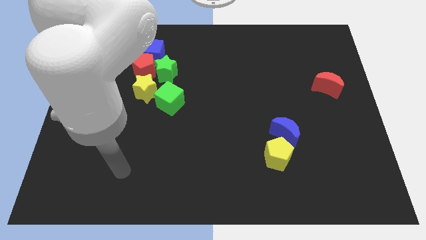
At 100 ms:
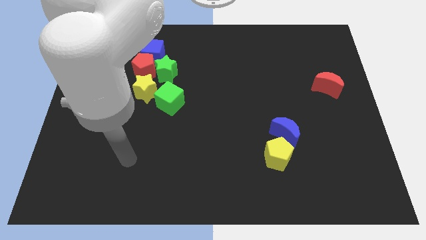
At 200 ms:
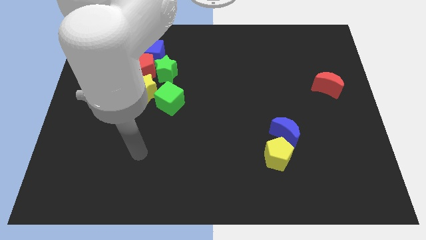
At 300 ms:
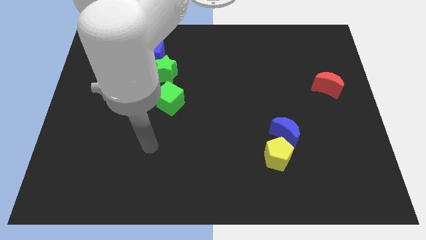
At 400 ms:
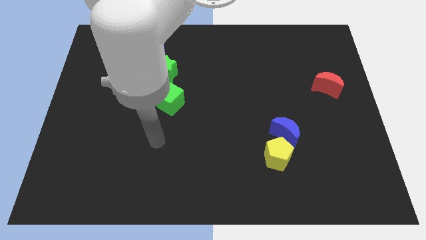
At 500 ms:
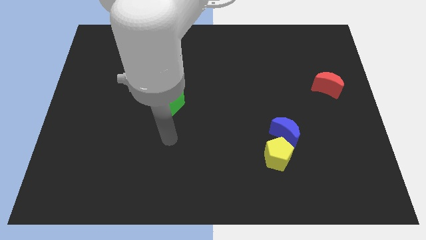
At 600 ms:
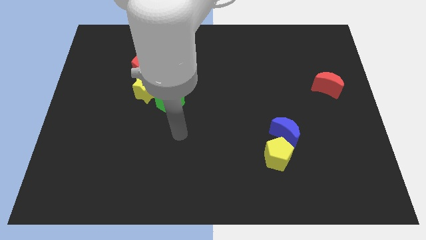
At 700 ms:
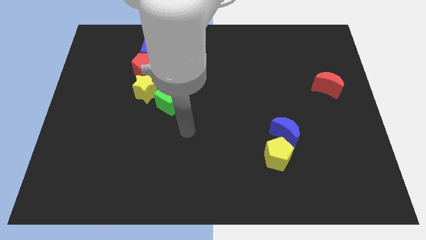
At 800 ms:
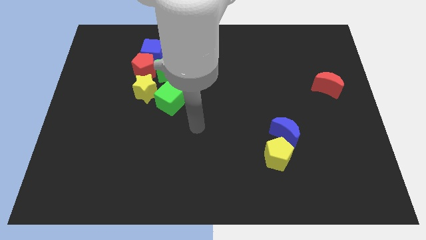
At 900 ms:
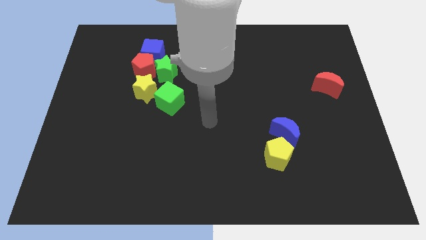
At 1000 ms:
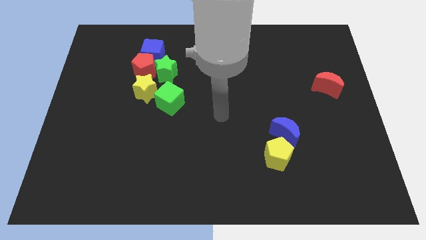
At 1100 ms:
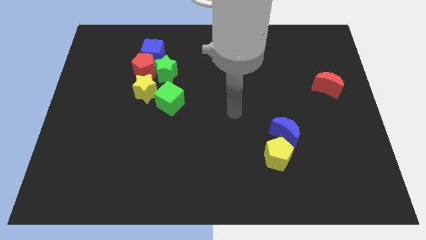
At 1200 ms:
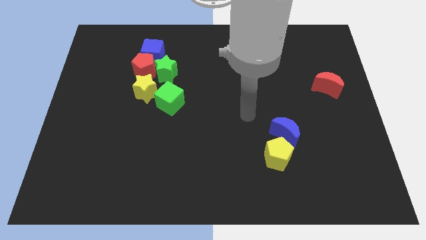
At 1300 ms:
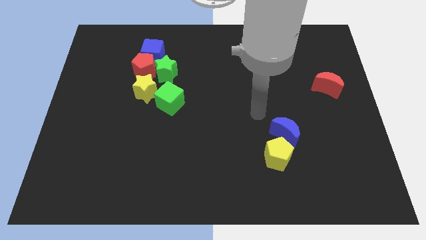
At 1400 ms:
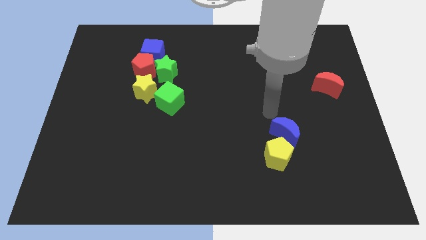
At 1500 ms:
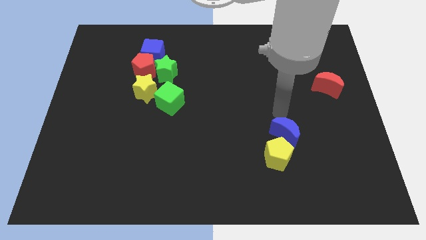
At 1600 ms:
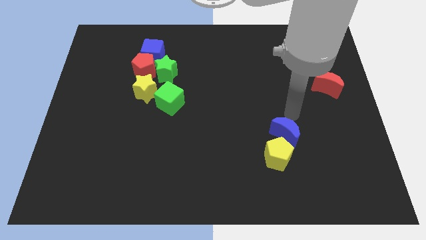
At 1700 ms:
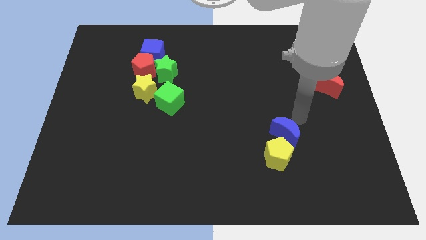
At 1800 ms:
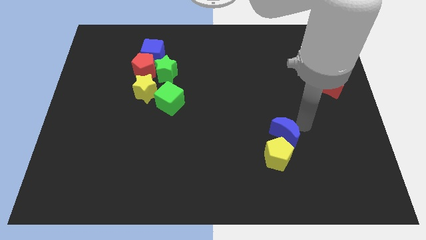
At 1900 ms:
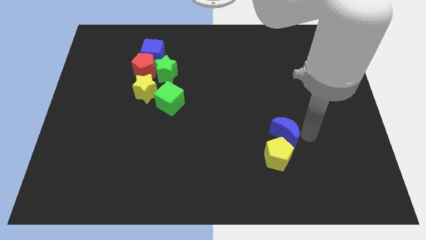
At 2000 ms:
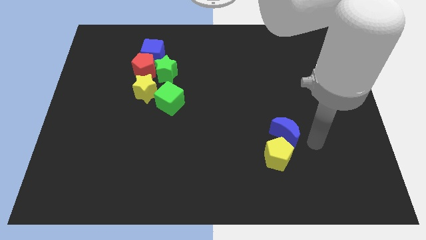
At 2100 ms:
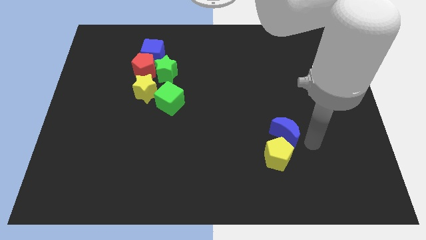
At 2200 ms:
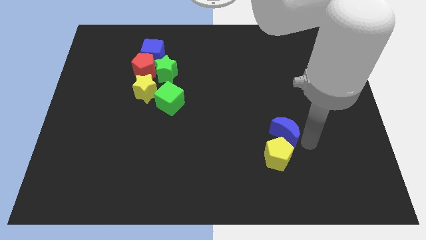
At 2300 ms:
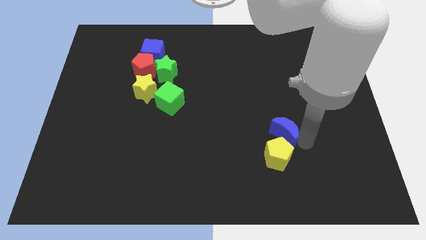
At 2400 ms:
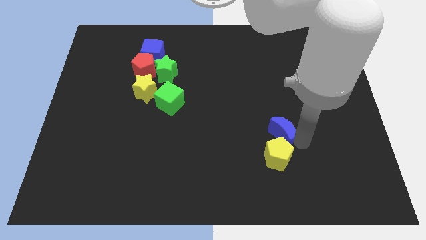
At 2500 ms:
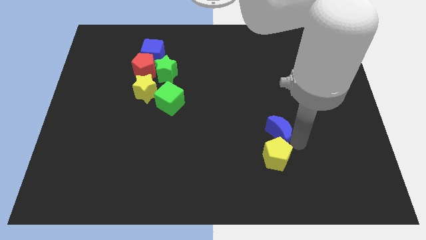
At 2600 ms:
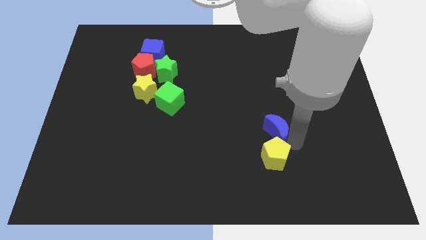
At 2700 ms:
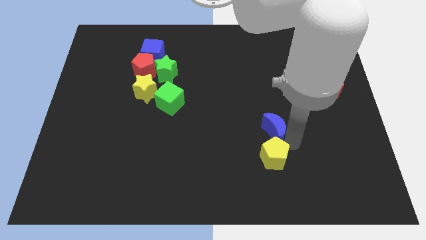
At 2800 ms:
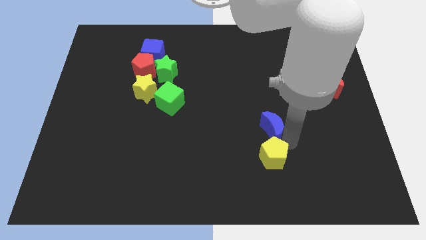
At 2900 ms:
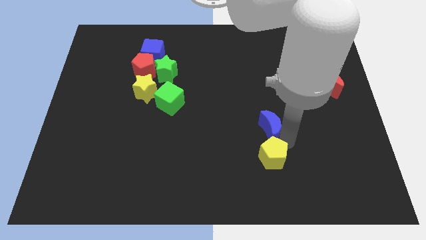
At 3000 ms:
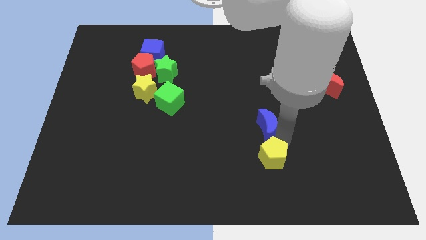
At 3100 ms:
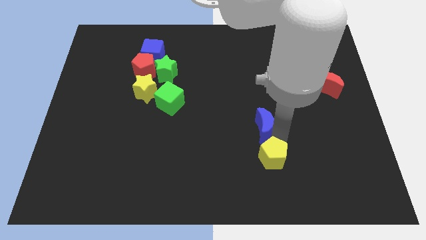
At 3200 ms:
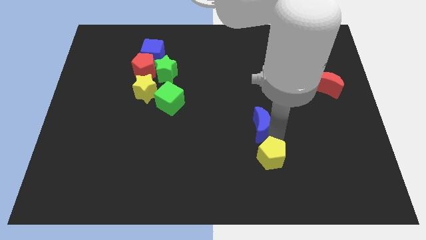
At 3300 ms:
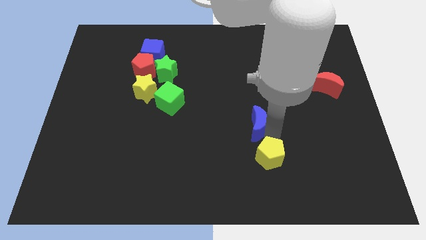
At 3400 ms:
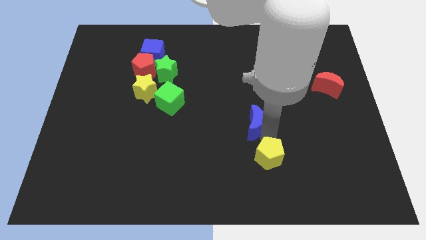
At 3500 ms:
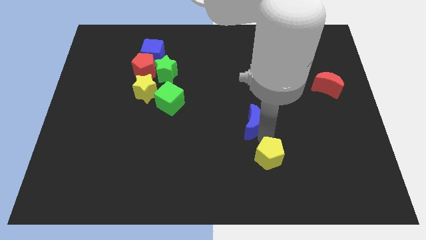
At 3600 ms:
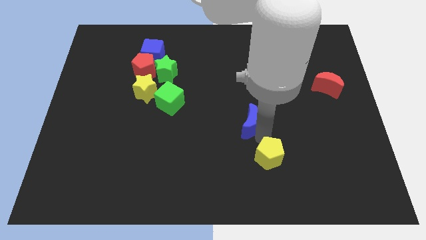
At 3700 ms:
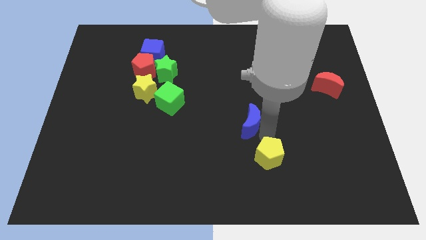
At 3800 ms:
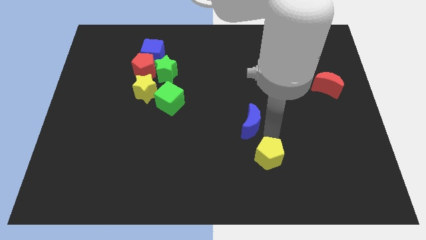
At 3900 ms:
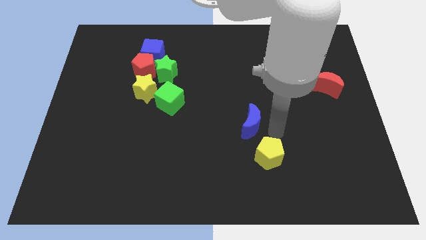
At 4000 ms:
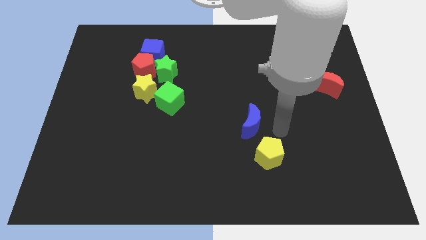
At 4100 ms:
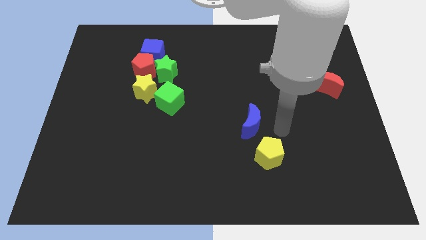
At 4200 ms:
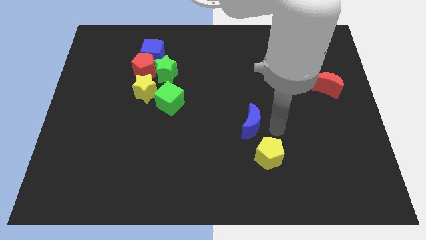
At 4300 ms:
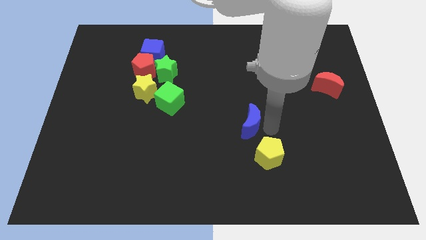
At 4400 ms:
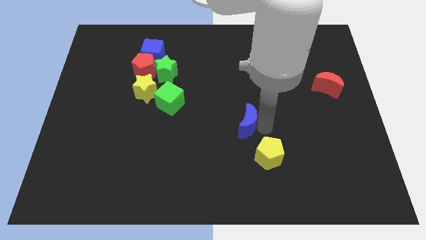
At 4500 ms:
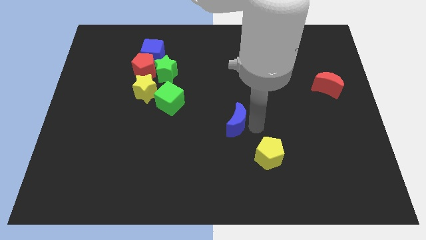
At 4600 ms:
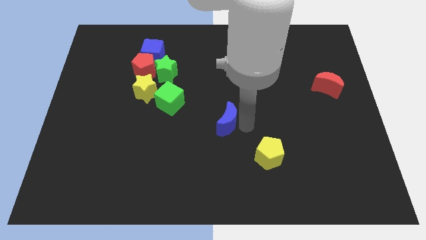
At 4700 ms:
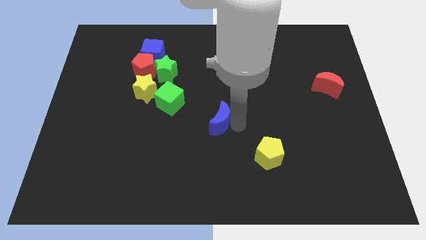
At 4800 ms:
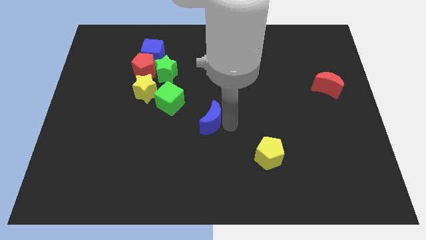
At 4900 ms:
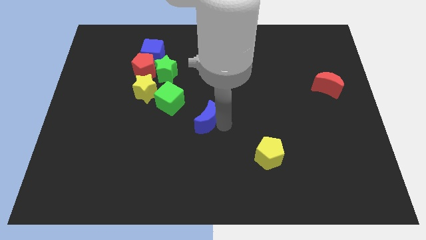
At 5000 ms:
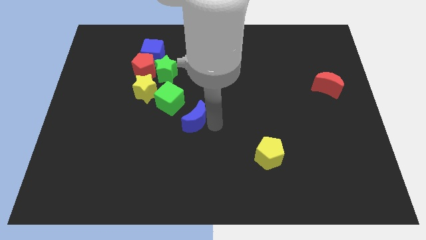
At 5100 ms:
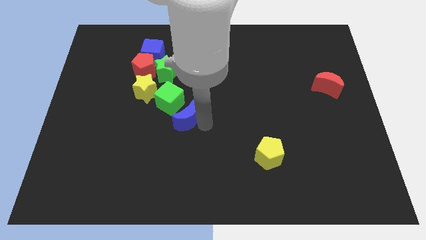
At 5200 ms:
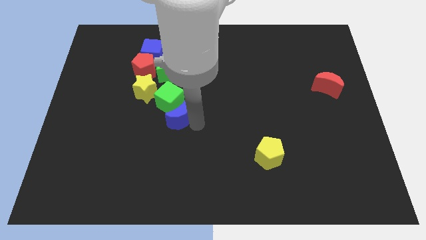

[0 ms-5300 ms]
push the blue moon to the green cube

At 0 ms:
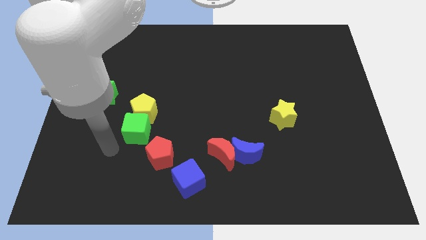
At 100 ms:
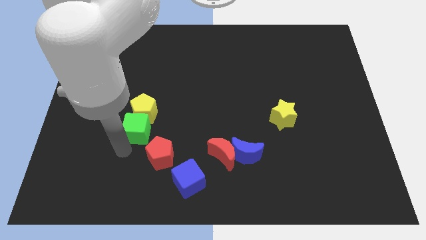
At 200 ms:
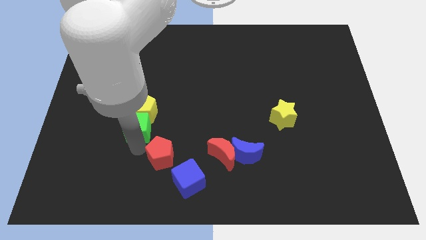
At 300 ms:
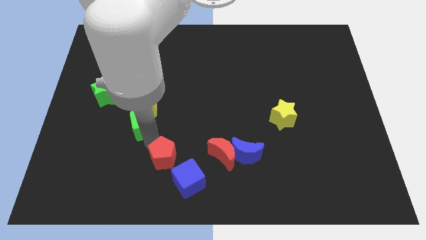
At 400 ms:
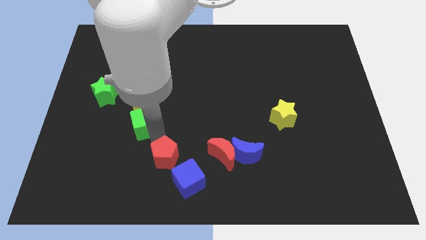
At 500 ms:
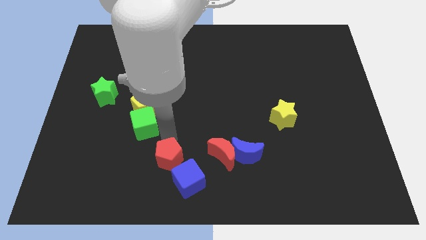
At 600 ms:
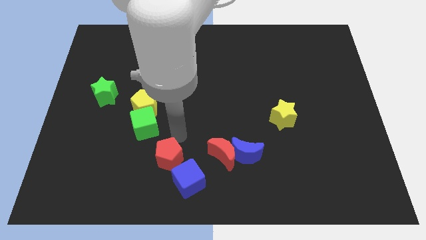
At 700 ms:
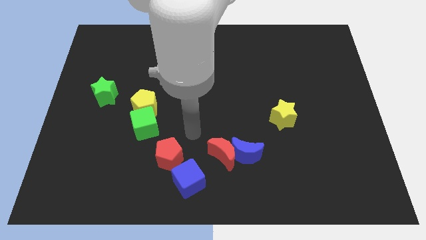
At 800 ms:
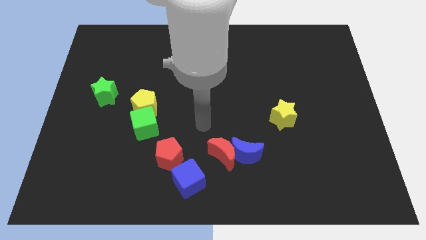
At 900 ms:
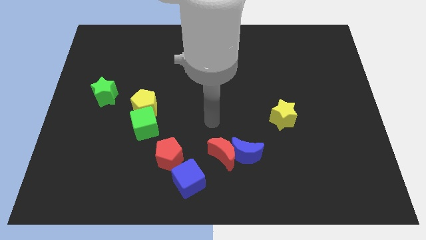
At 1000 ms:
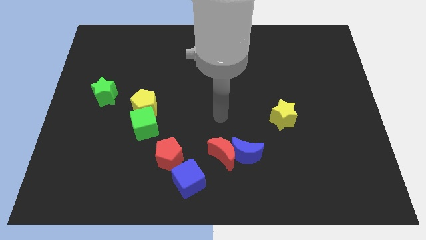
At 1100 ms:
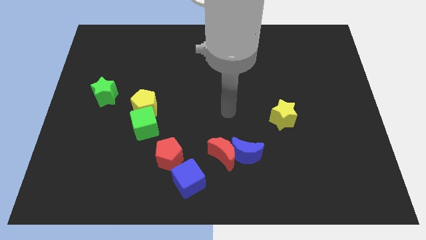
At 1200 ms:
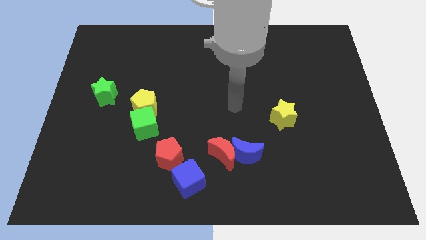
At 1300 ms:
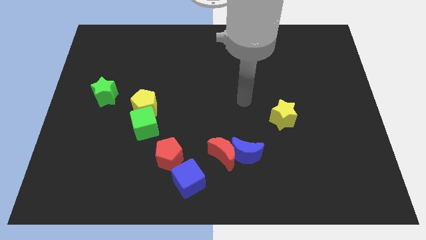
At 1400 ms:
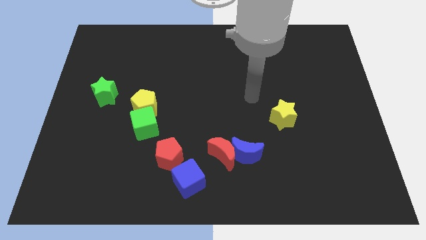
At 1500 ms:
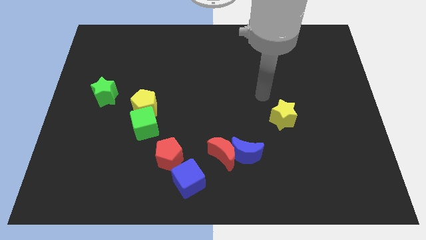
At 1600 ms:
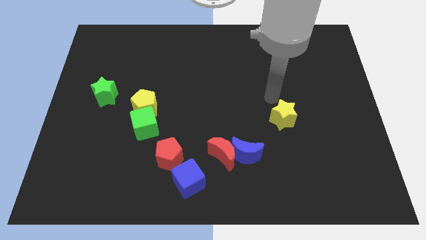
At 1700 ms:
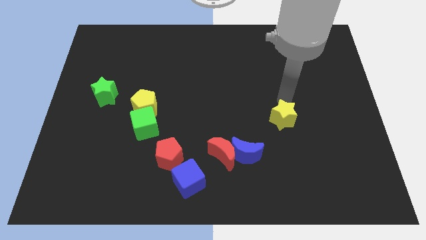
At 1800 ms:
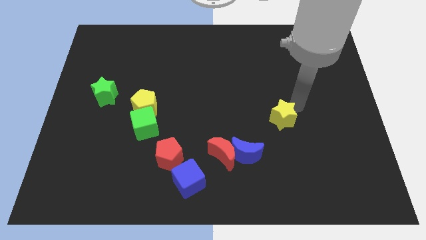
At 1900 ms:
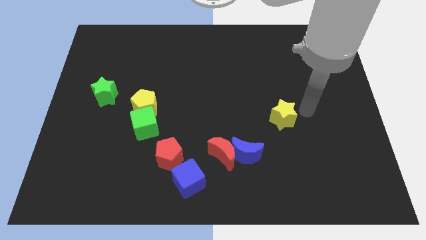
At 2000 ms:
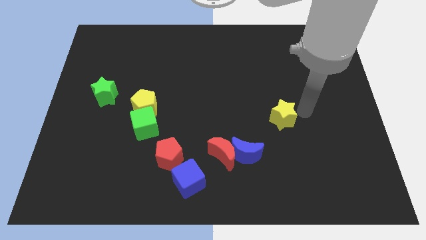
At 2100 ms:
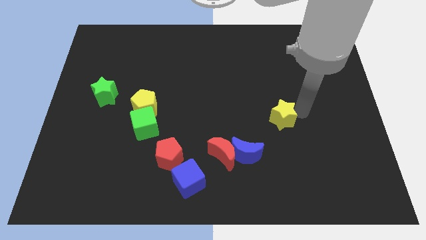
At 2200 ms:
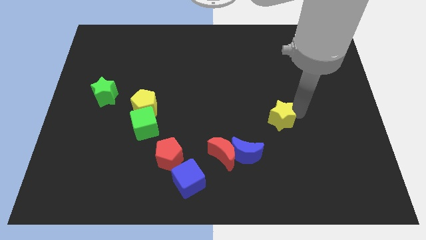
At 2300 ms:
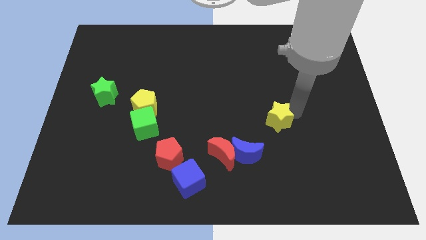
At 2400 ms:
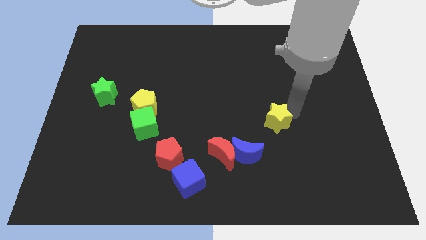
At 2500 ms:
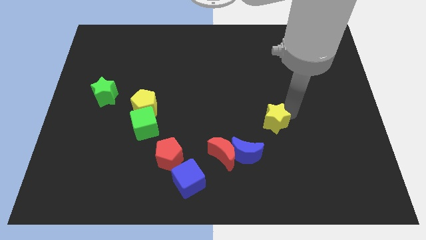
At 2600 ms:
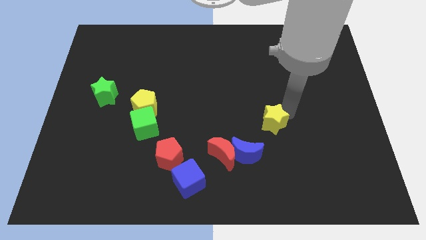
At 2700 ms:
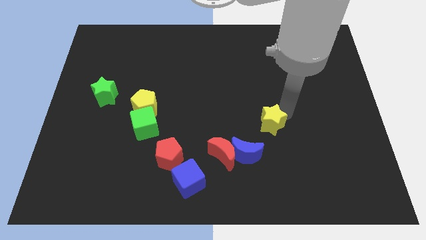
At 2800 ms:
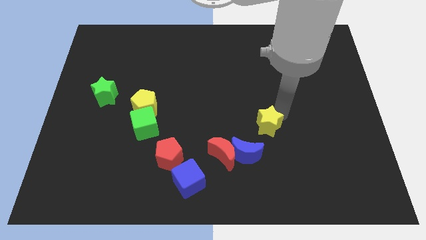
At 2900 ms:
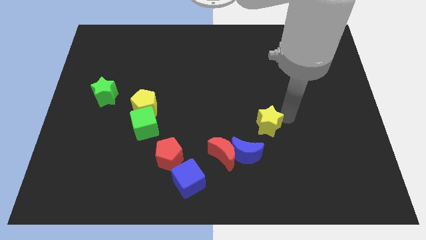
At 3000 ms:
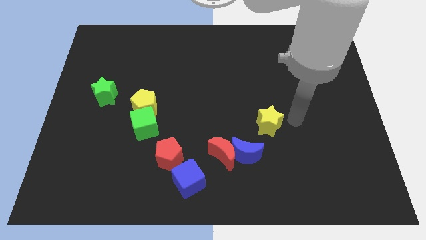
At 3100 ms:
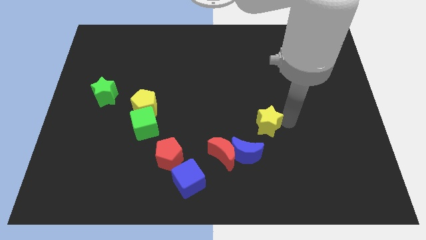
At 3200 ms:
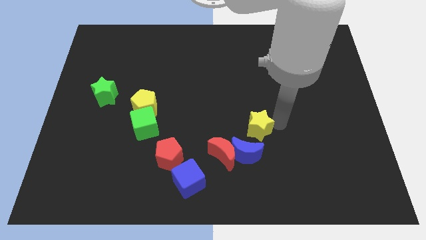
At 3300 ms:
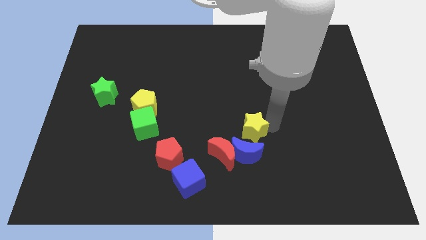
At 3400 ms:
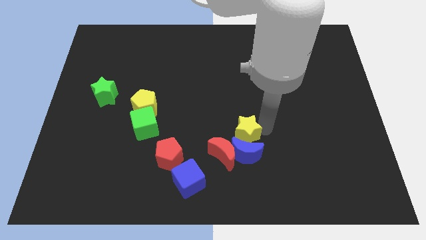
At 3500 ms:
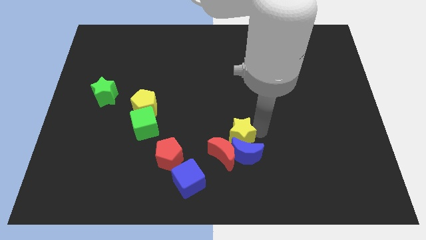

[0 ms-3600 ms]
push the yellow star towards the red moon
